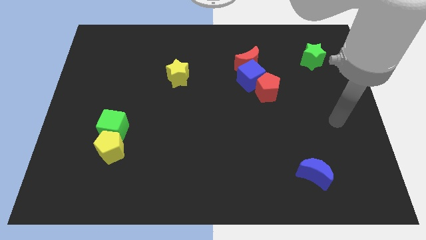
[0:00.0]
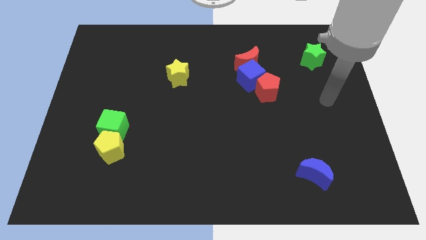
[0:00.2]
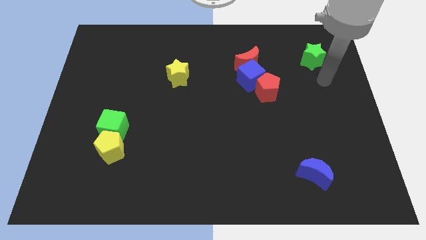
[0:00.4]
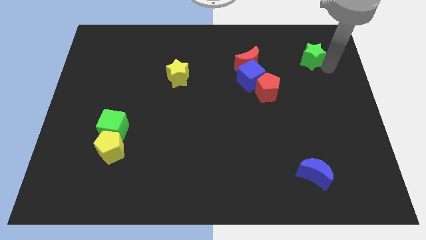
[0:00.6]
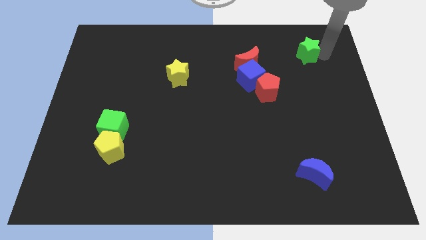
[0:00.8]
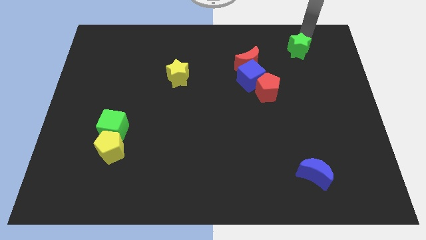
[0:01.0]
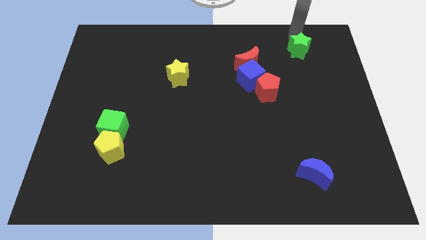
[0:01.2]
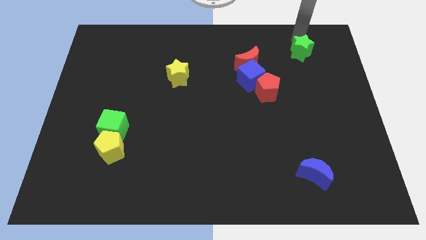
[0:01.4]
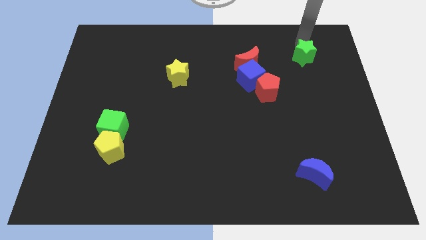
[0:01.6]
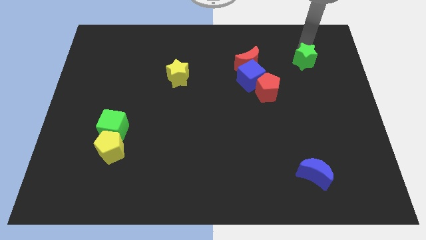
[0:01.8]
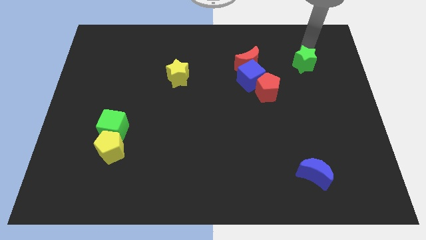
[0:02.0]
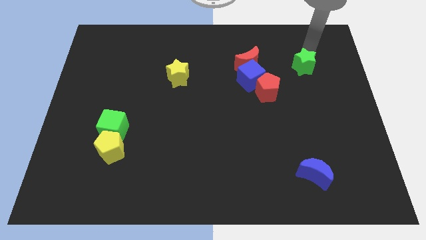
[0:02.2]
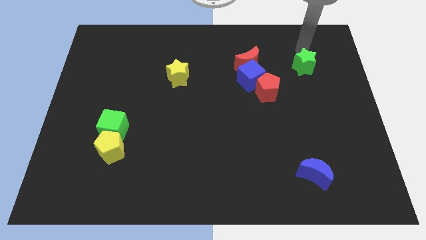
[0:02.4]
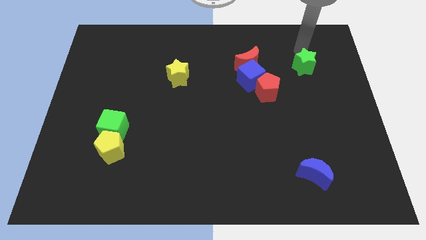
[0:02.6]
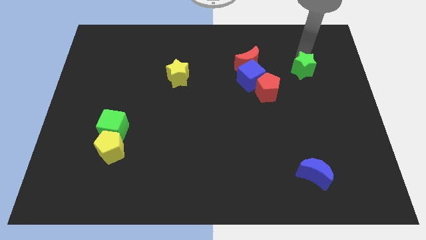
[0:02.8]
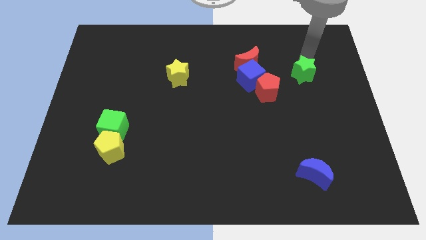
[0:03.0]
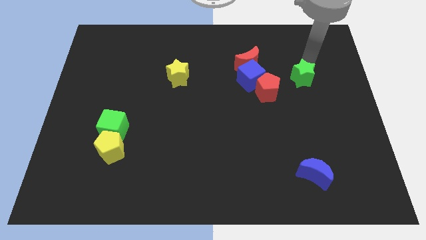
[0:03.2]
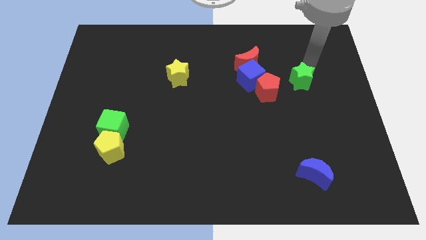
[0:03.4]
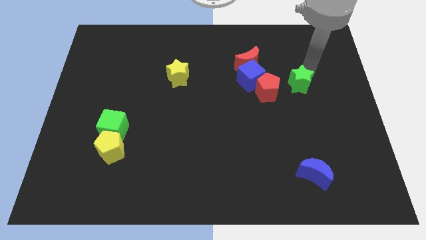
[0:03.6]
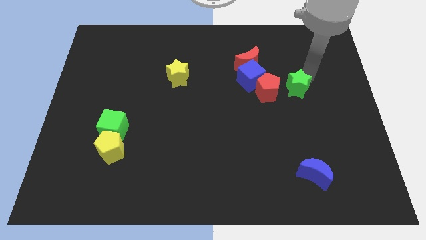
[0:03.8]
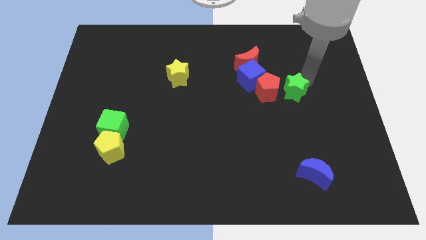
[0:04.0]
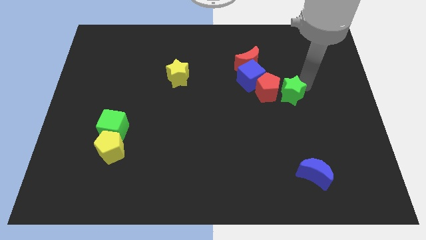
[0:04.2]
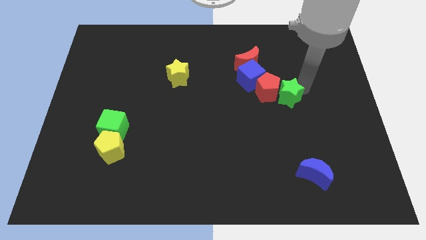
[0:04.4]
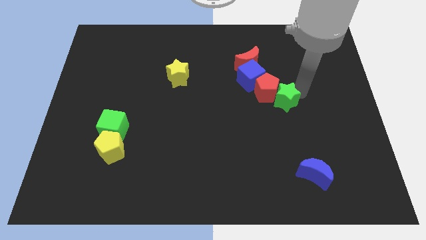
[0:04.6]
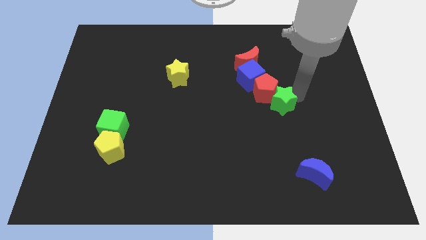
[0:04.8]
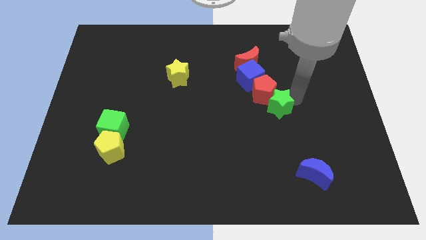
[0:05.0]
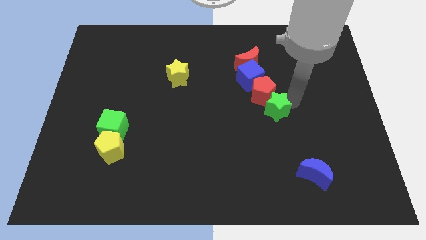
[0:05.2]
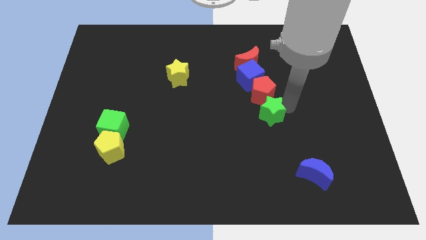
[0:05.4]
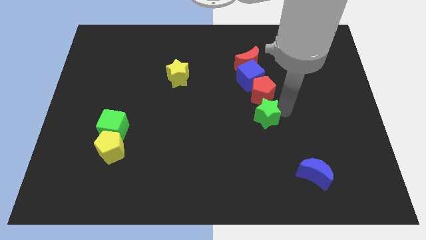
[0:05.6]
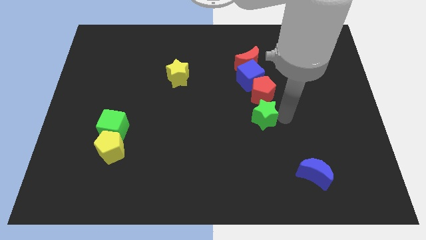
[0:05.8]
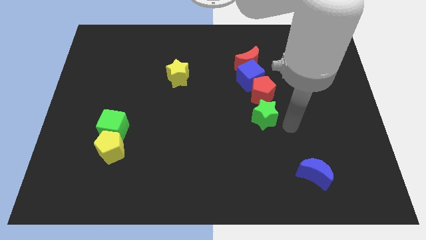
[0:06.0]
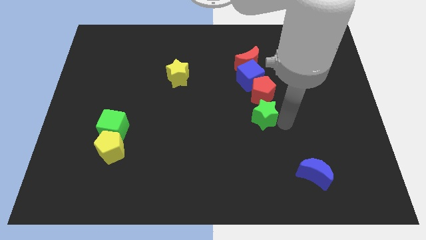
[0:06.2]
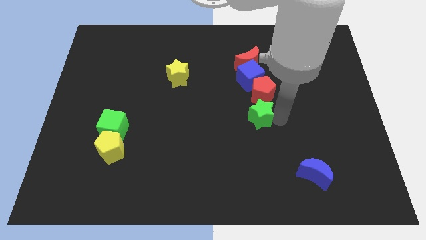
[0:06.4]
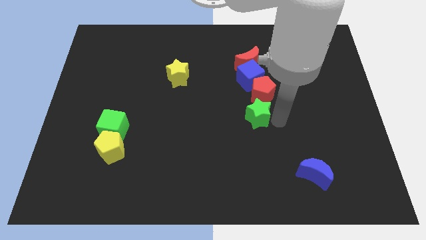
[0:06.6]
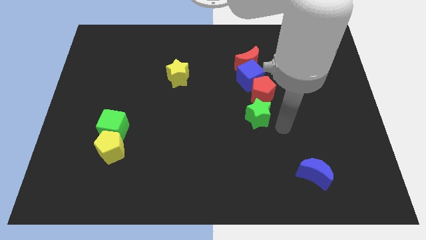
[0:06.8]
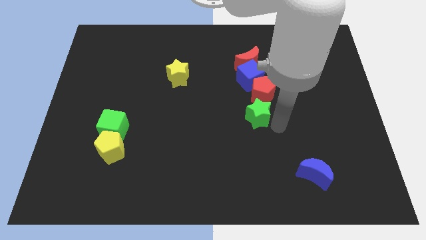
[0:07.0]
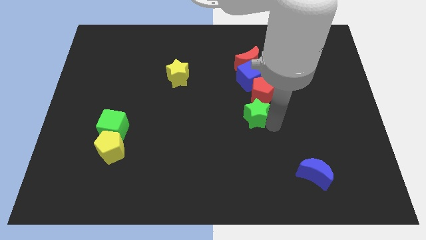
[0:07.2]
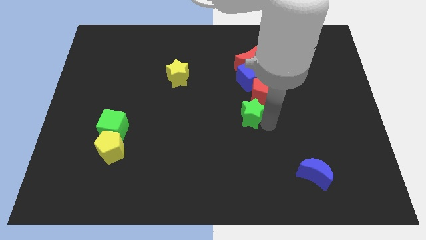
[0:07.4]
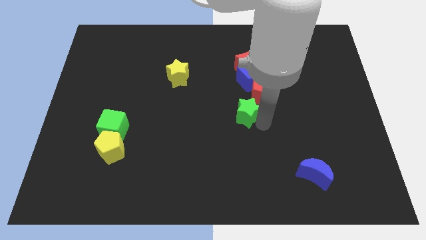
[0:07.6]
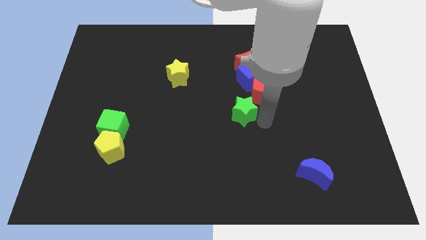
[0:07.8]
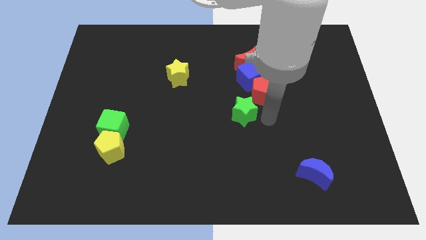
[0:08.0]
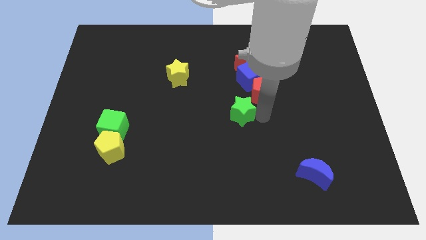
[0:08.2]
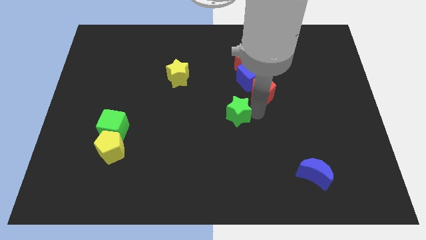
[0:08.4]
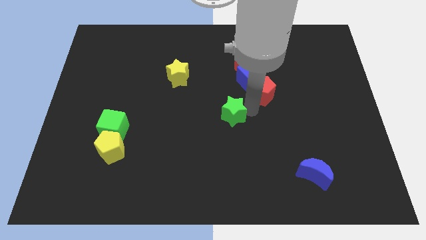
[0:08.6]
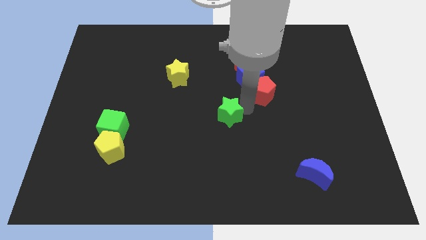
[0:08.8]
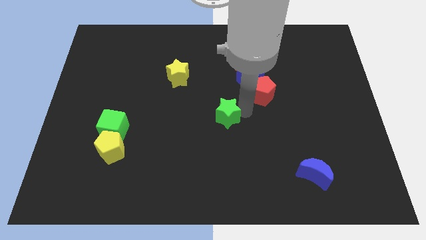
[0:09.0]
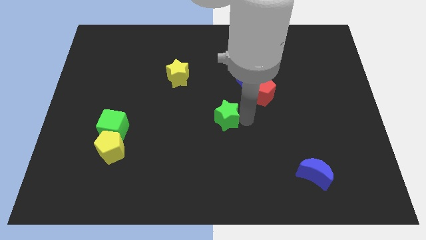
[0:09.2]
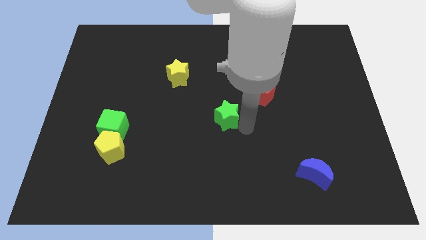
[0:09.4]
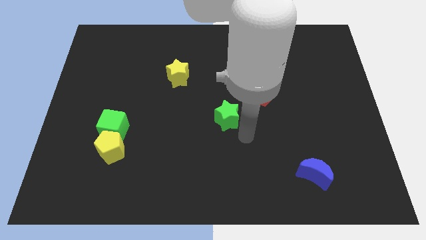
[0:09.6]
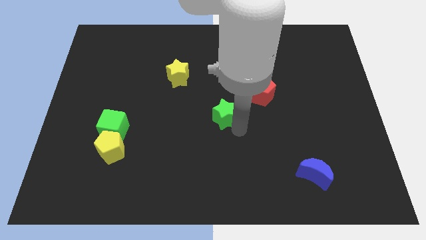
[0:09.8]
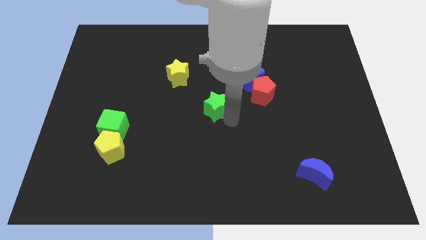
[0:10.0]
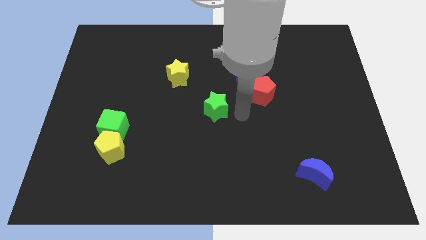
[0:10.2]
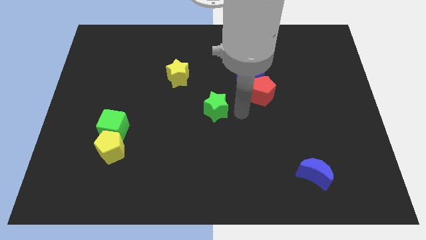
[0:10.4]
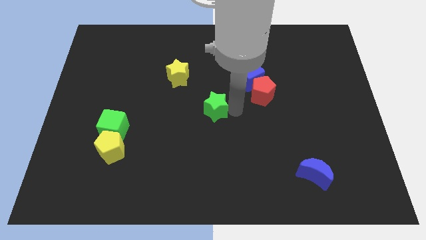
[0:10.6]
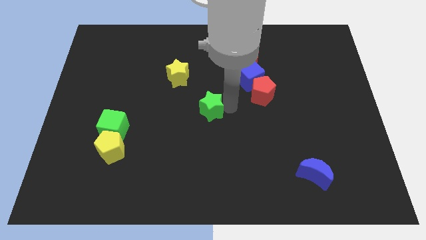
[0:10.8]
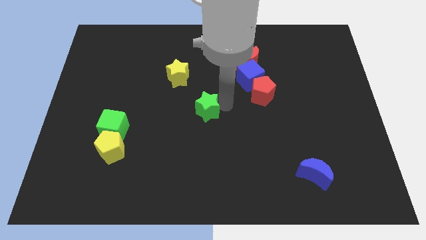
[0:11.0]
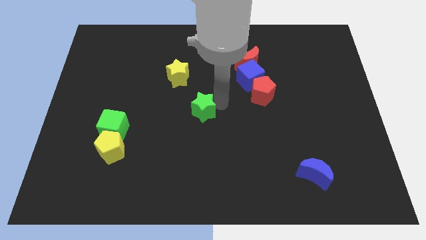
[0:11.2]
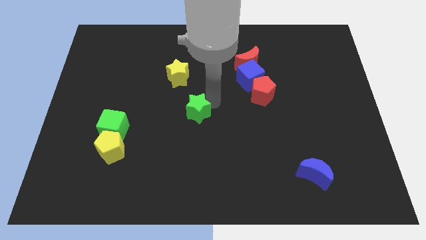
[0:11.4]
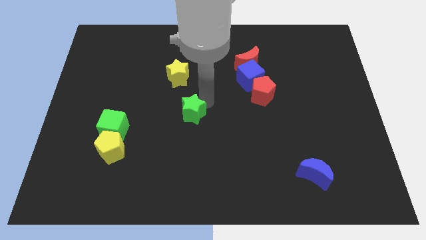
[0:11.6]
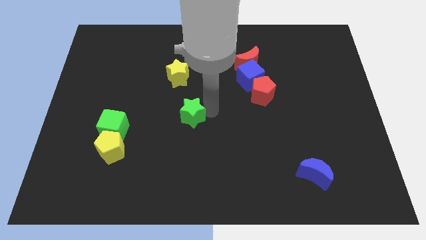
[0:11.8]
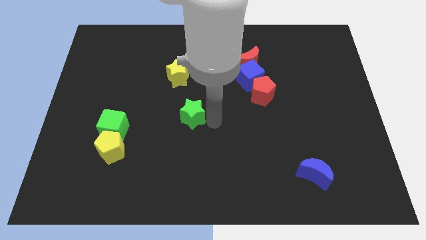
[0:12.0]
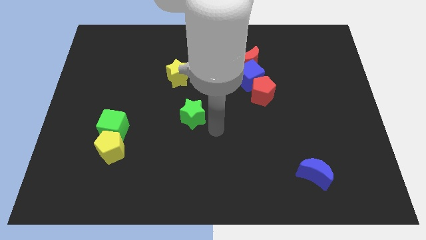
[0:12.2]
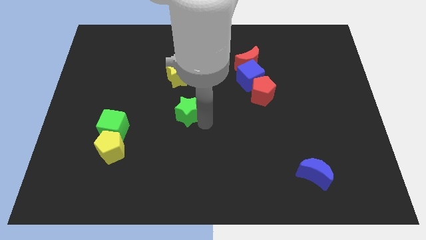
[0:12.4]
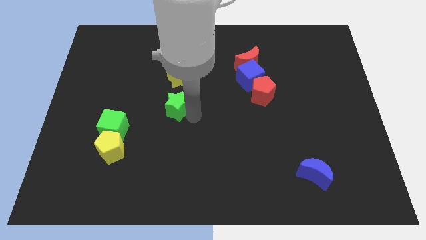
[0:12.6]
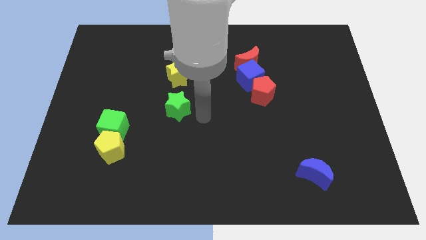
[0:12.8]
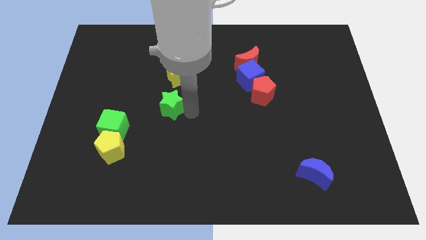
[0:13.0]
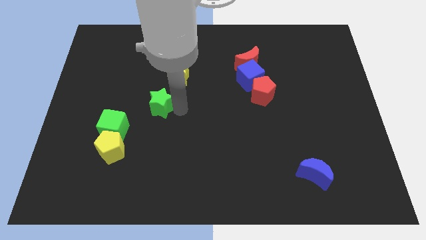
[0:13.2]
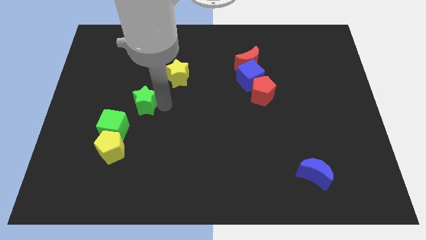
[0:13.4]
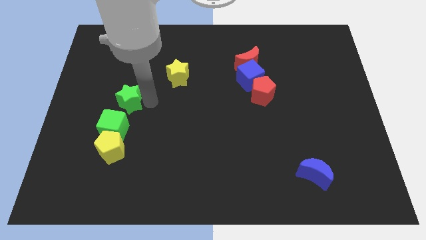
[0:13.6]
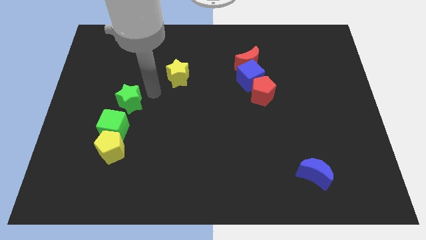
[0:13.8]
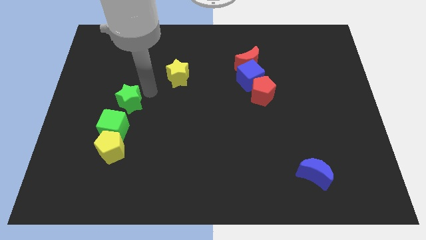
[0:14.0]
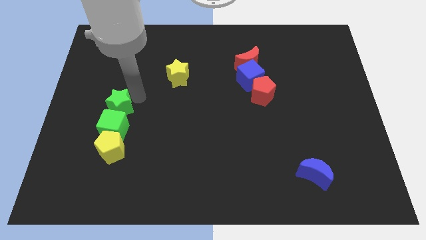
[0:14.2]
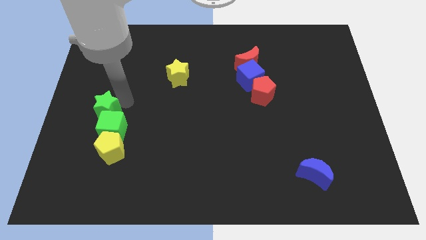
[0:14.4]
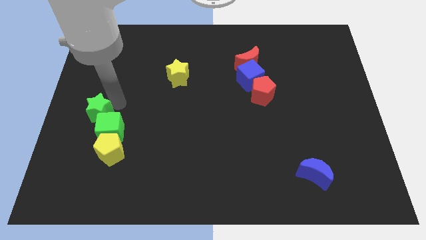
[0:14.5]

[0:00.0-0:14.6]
move the green star to the top left side of the yellow pentagon

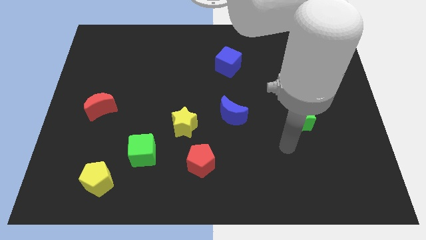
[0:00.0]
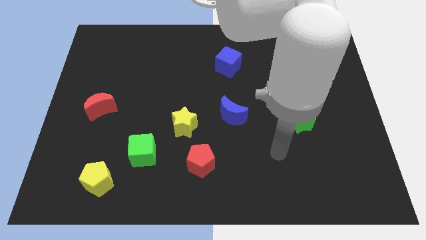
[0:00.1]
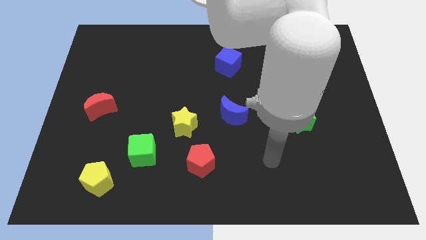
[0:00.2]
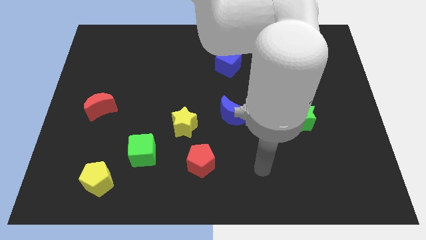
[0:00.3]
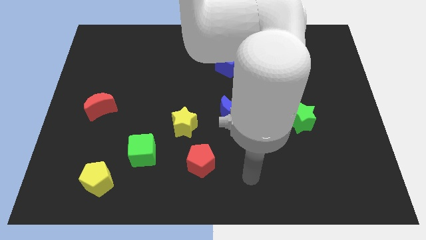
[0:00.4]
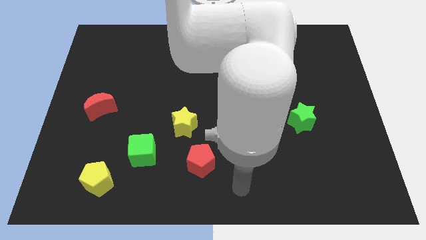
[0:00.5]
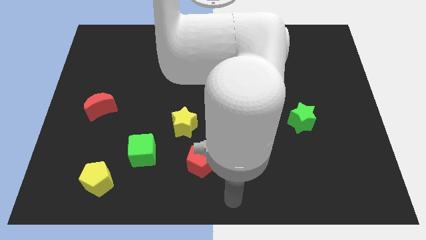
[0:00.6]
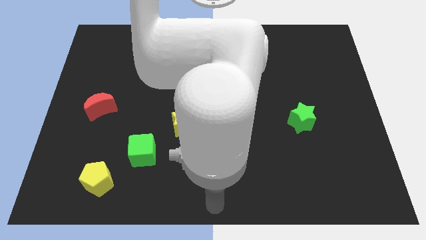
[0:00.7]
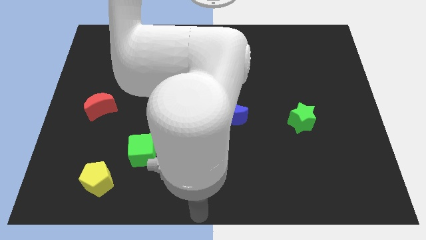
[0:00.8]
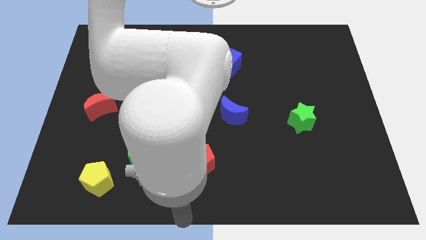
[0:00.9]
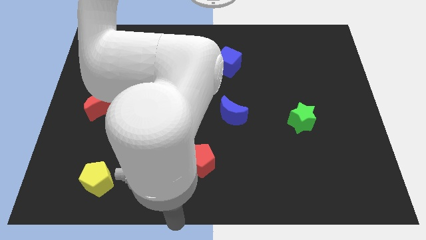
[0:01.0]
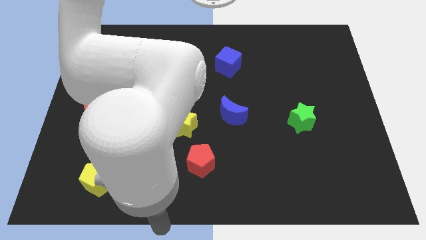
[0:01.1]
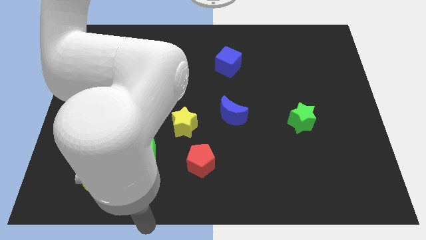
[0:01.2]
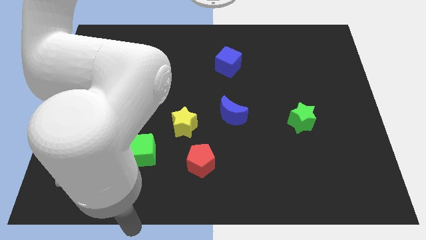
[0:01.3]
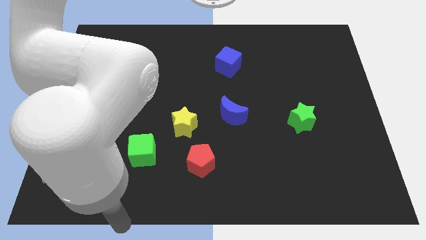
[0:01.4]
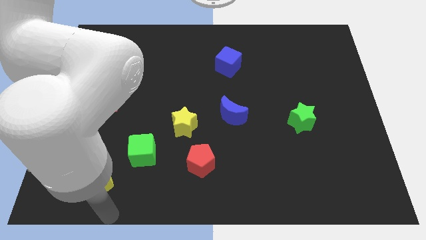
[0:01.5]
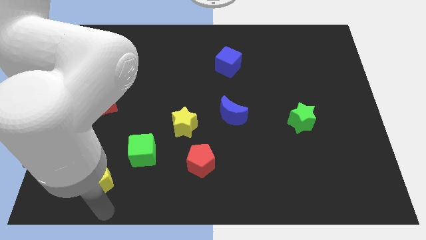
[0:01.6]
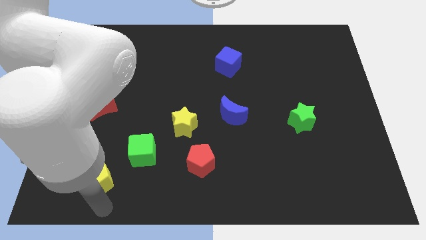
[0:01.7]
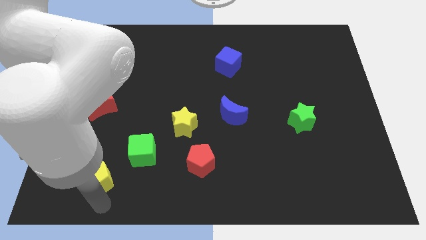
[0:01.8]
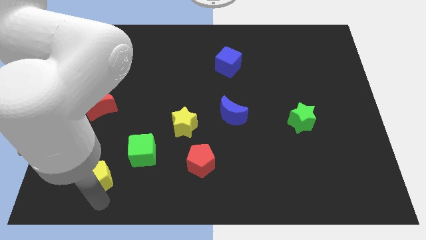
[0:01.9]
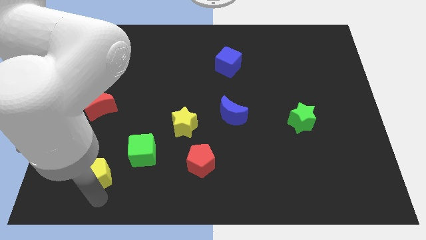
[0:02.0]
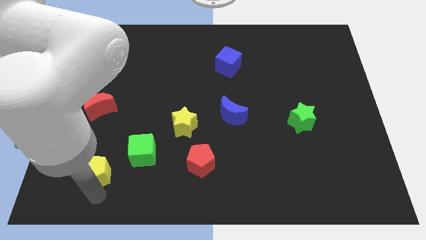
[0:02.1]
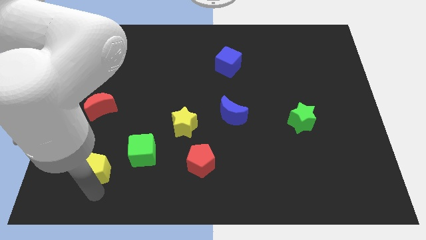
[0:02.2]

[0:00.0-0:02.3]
put the yellow pentagon just left of the green cube
